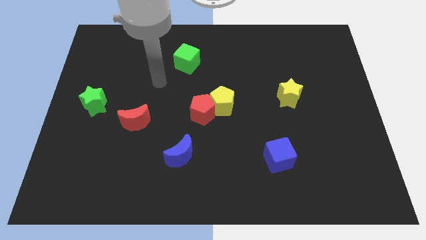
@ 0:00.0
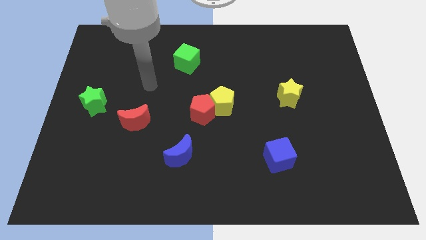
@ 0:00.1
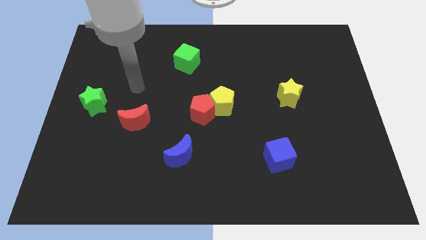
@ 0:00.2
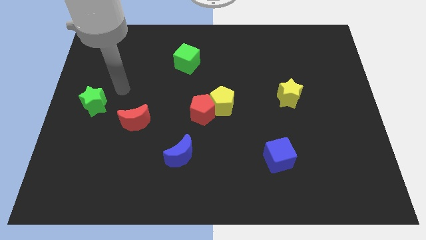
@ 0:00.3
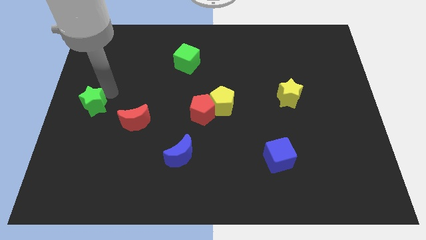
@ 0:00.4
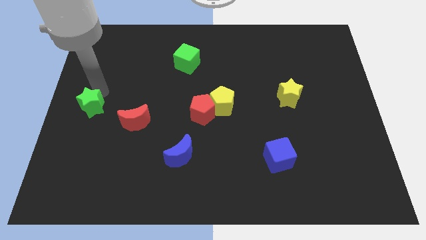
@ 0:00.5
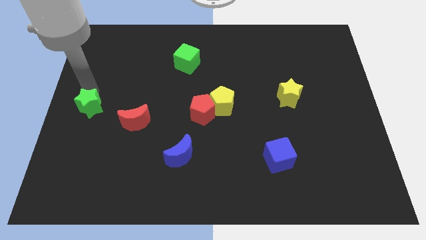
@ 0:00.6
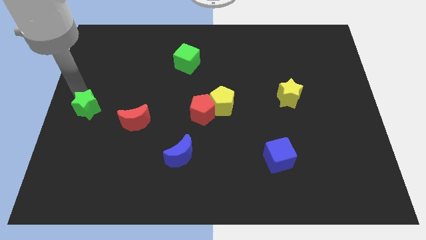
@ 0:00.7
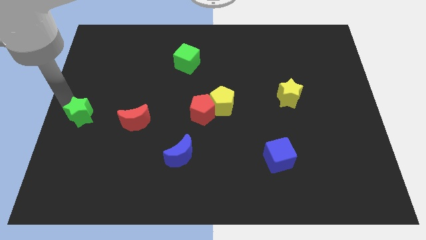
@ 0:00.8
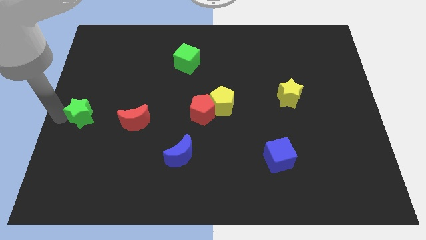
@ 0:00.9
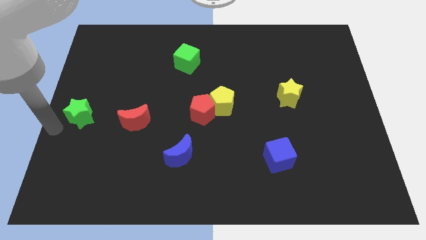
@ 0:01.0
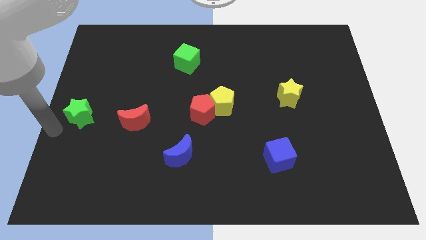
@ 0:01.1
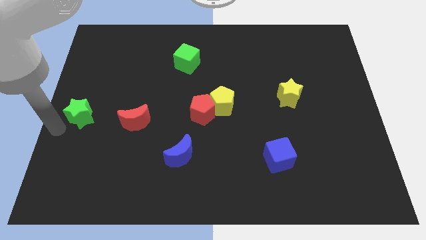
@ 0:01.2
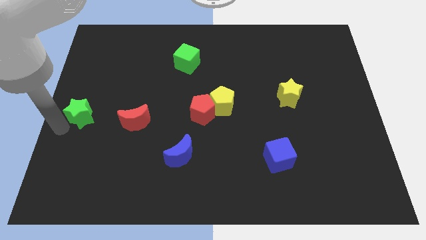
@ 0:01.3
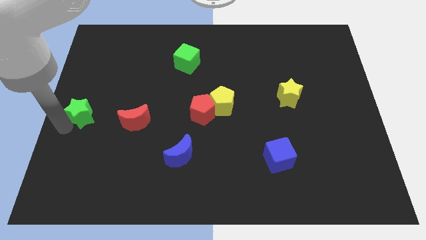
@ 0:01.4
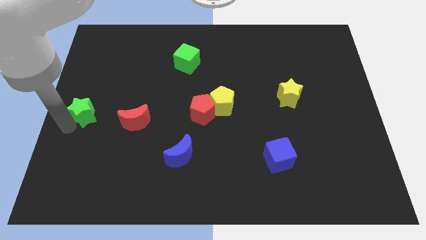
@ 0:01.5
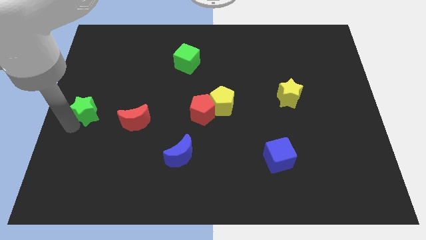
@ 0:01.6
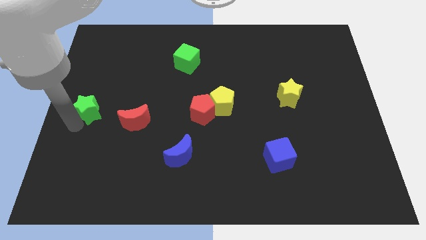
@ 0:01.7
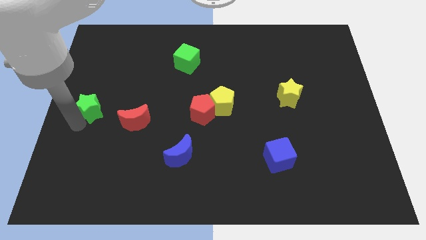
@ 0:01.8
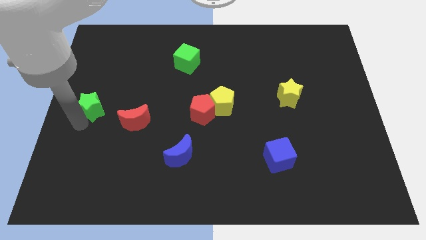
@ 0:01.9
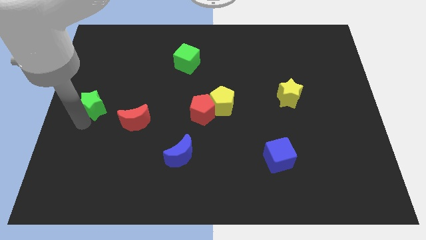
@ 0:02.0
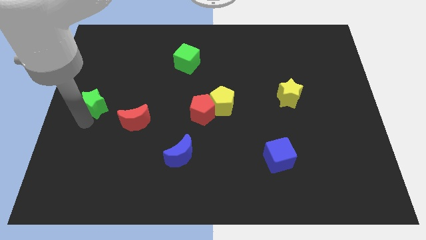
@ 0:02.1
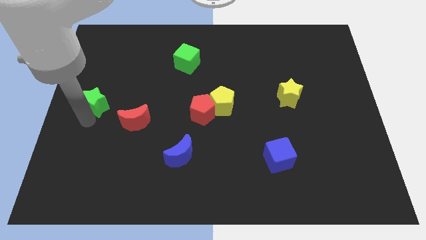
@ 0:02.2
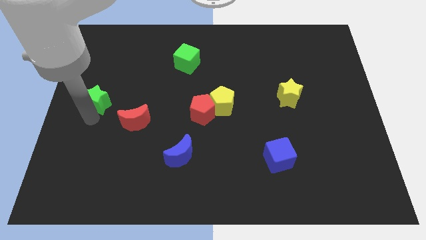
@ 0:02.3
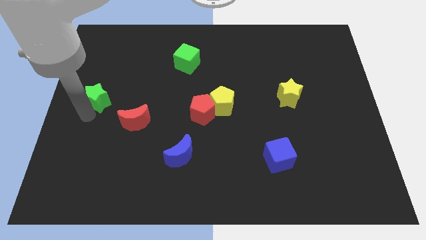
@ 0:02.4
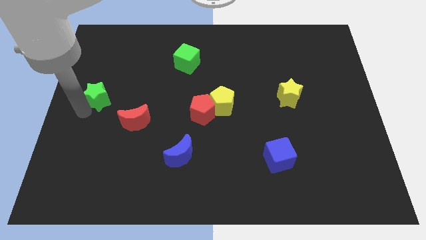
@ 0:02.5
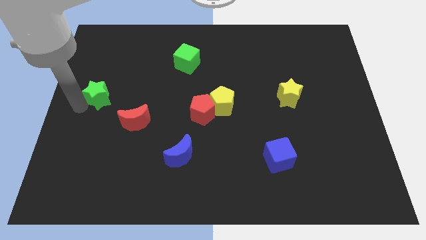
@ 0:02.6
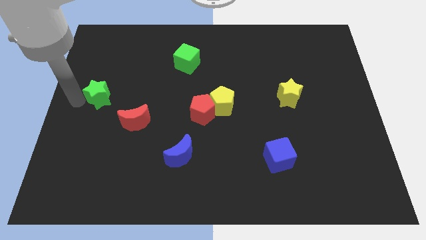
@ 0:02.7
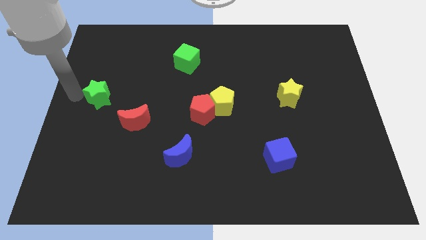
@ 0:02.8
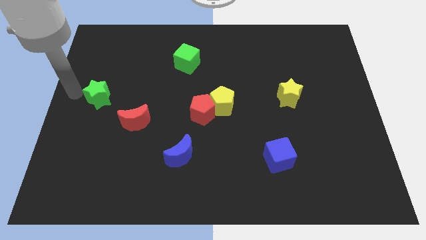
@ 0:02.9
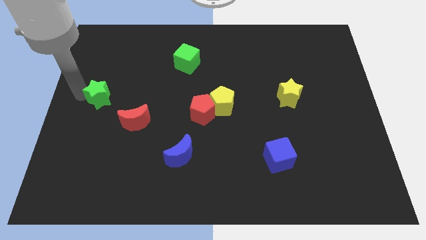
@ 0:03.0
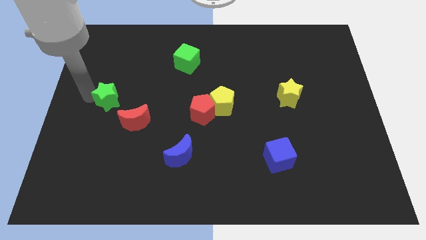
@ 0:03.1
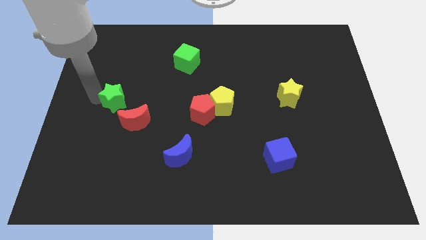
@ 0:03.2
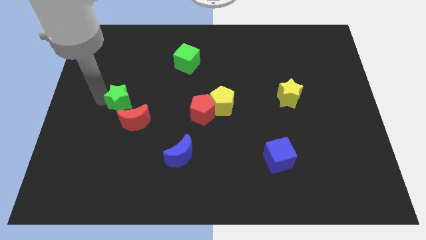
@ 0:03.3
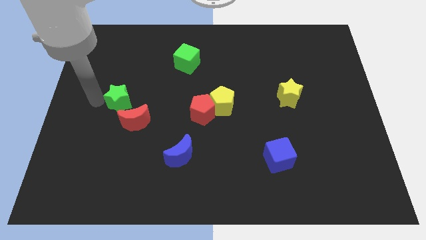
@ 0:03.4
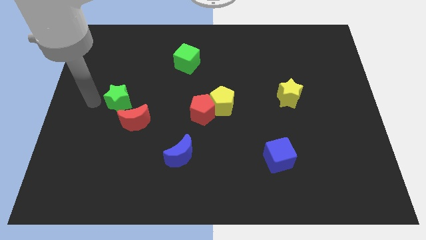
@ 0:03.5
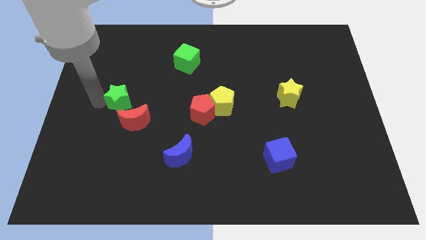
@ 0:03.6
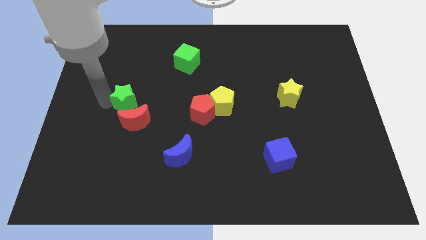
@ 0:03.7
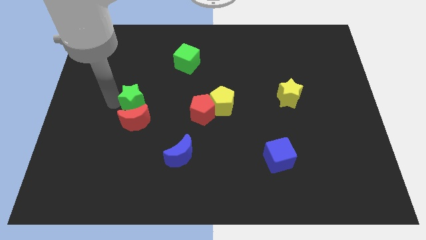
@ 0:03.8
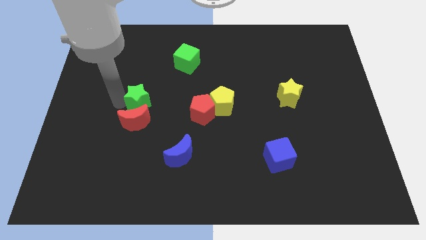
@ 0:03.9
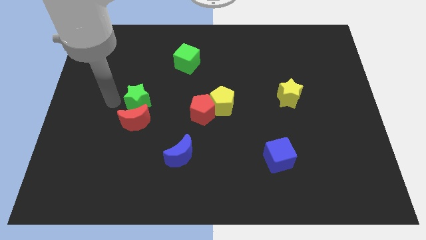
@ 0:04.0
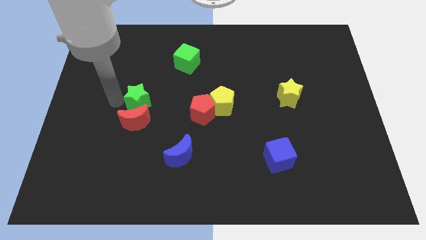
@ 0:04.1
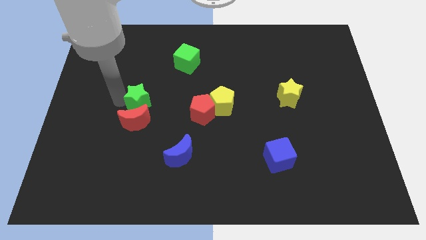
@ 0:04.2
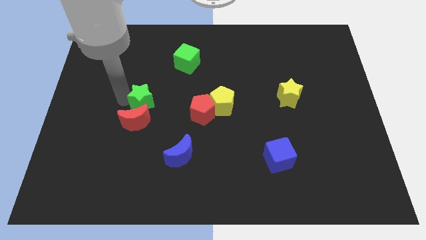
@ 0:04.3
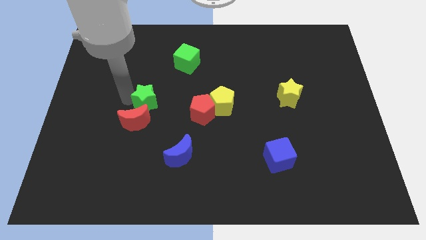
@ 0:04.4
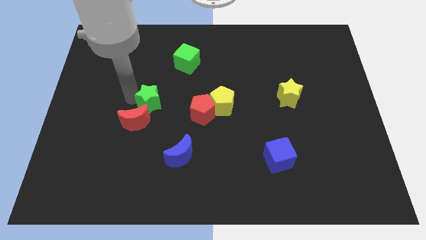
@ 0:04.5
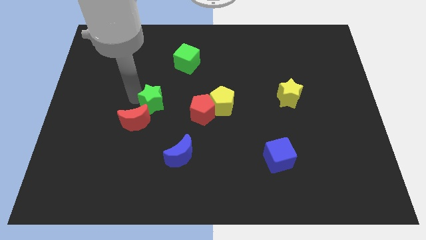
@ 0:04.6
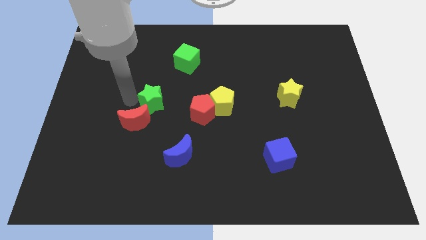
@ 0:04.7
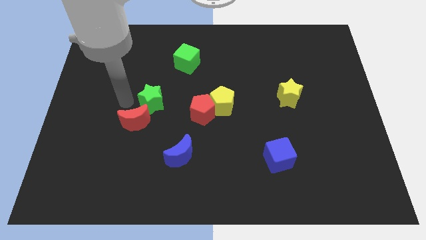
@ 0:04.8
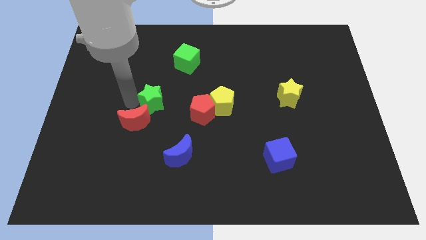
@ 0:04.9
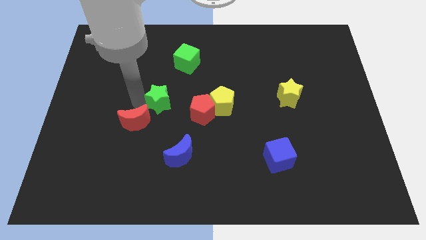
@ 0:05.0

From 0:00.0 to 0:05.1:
move the green star to the left of the yellow pentagon

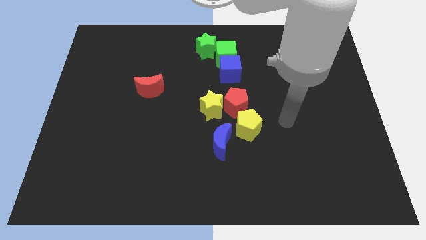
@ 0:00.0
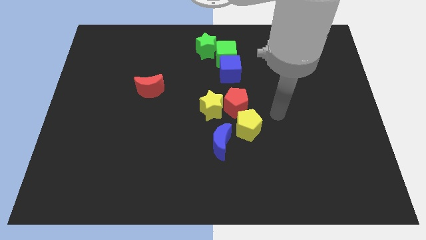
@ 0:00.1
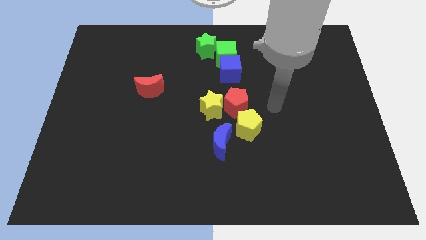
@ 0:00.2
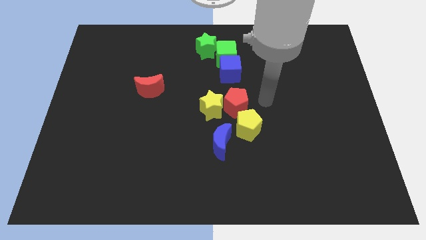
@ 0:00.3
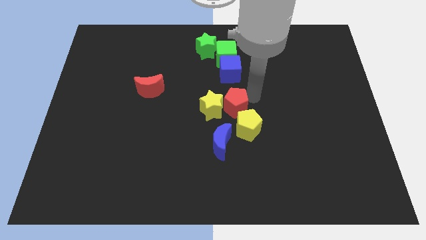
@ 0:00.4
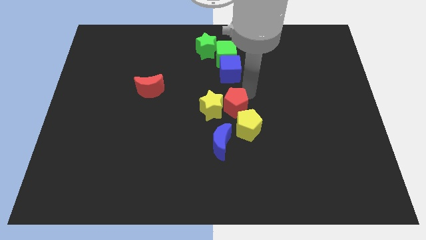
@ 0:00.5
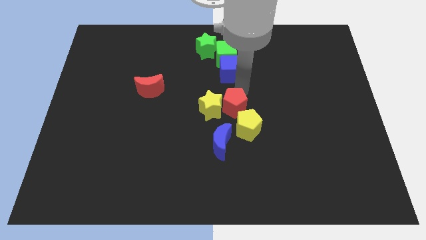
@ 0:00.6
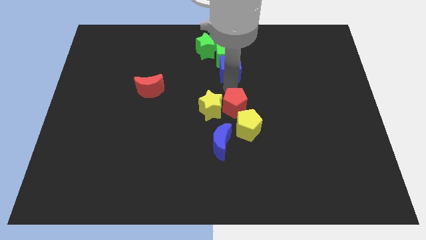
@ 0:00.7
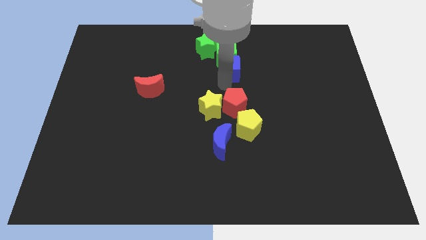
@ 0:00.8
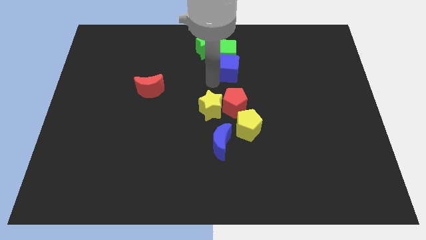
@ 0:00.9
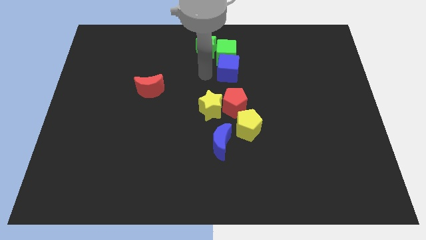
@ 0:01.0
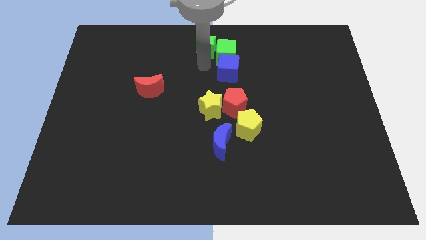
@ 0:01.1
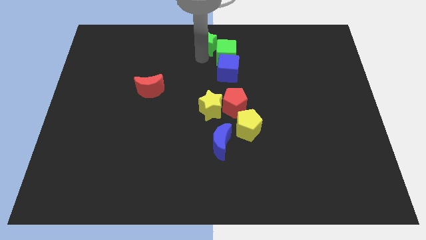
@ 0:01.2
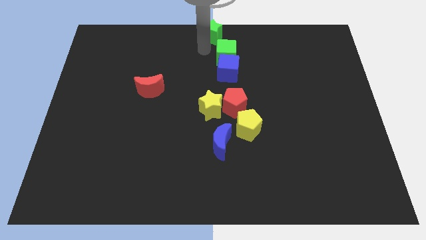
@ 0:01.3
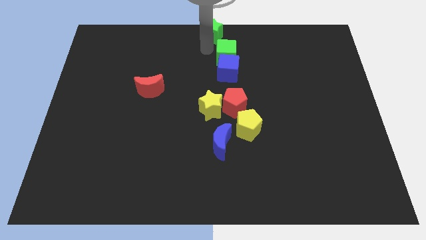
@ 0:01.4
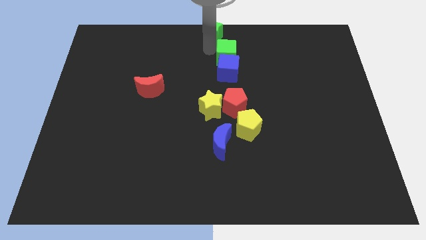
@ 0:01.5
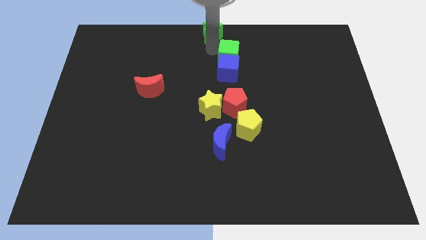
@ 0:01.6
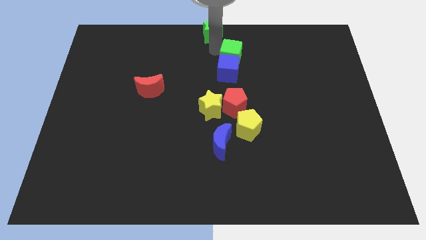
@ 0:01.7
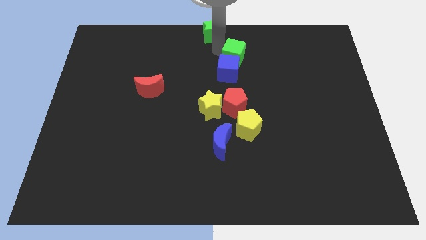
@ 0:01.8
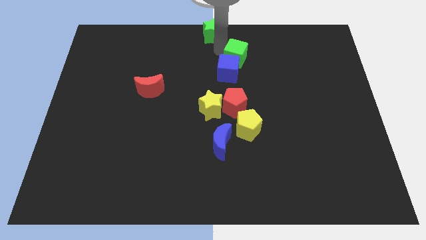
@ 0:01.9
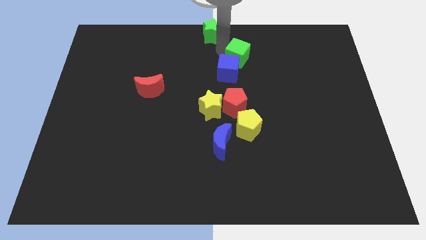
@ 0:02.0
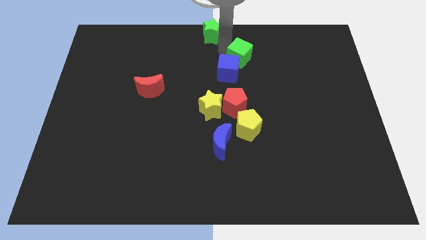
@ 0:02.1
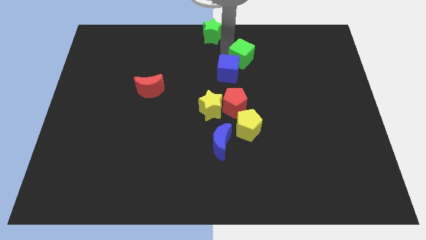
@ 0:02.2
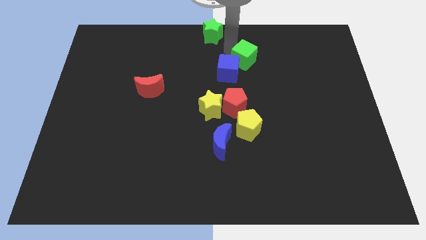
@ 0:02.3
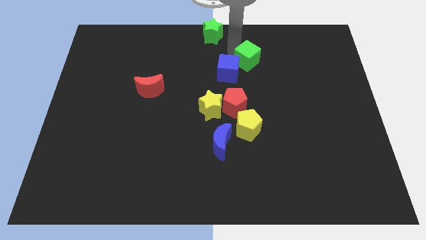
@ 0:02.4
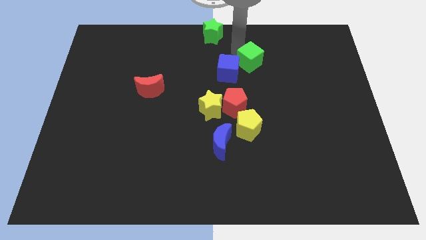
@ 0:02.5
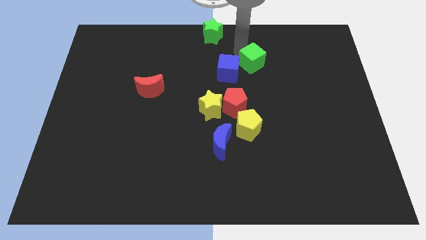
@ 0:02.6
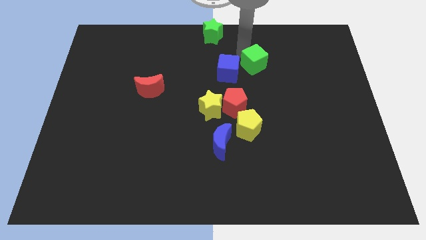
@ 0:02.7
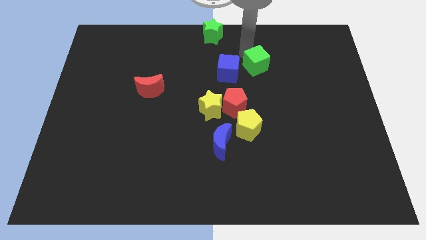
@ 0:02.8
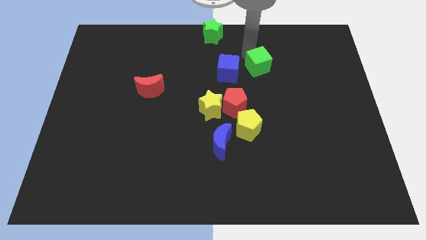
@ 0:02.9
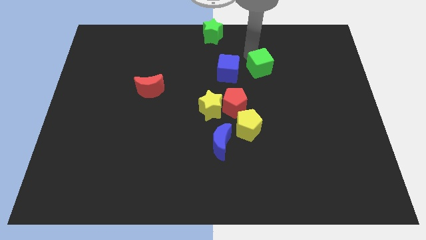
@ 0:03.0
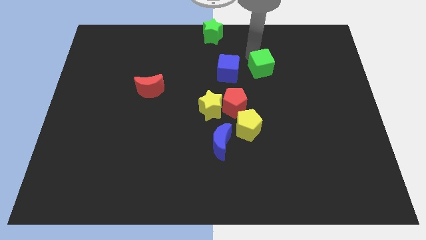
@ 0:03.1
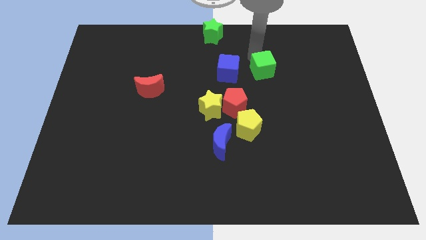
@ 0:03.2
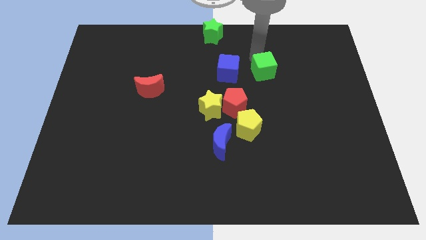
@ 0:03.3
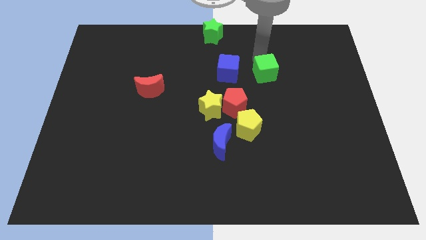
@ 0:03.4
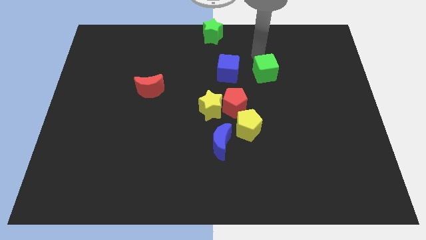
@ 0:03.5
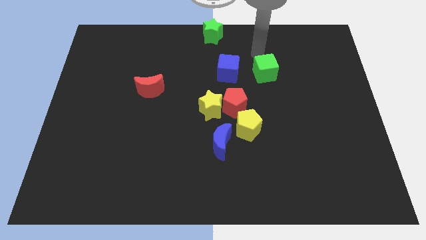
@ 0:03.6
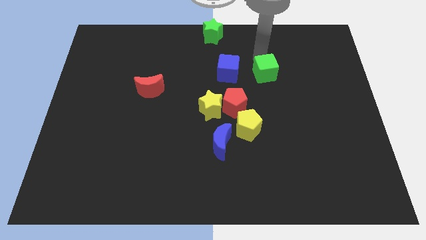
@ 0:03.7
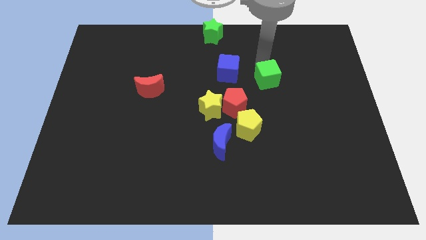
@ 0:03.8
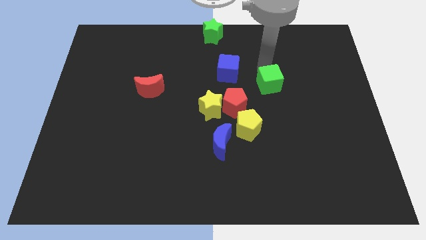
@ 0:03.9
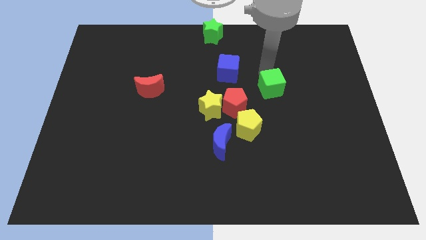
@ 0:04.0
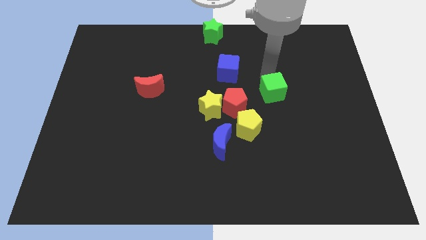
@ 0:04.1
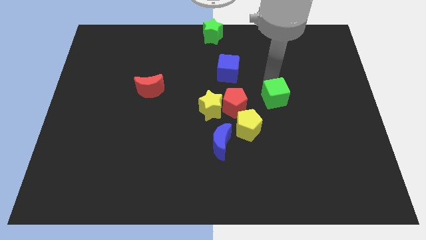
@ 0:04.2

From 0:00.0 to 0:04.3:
slide the green cube to the top right of the yellow pentagon
